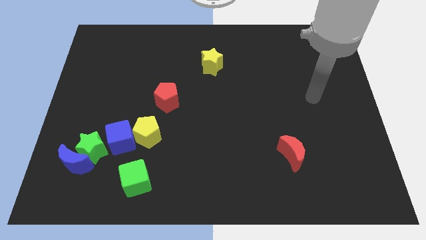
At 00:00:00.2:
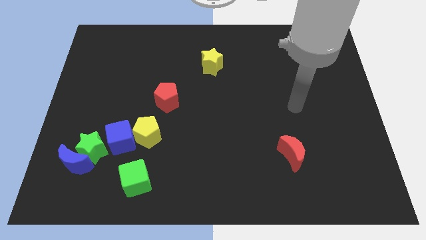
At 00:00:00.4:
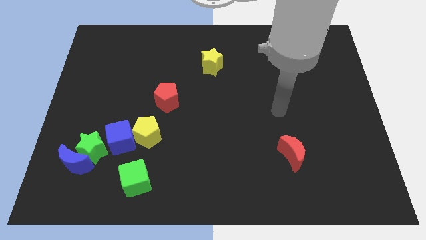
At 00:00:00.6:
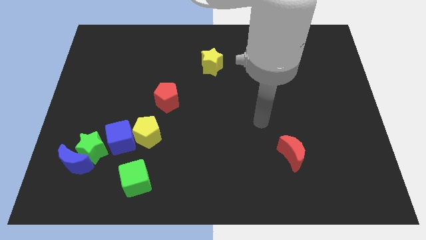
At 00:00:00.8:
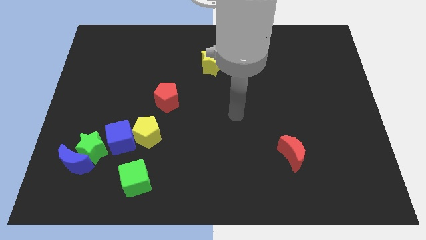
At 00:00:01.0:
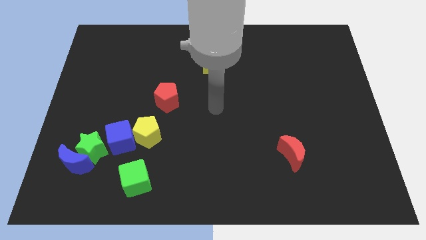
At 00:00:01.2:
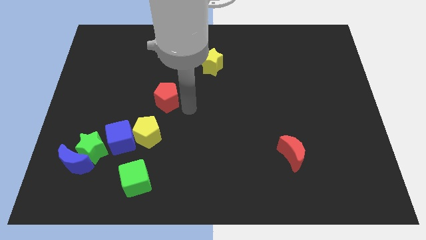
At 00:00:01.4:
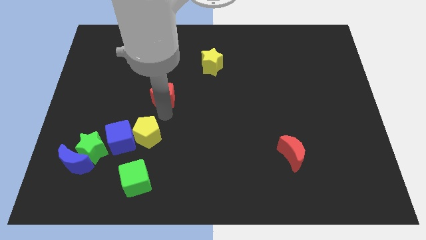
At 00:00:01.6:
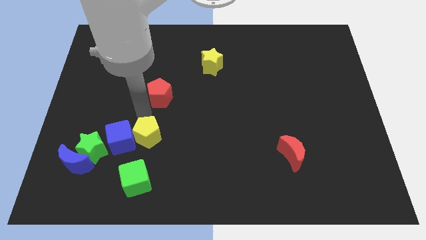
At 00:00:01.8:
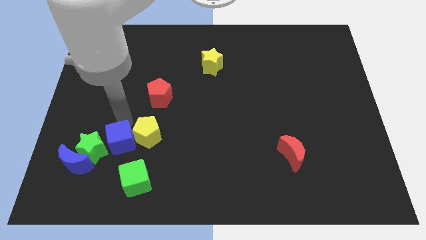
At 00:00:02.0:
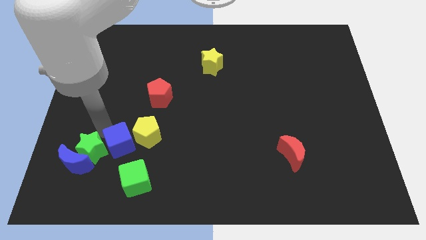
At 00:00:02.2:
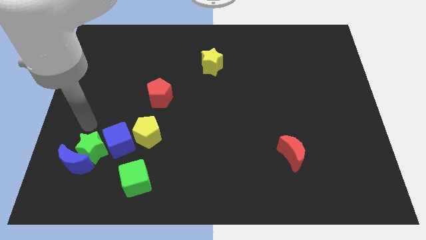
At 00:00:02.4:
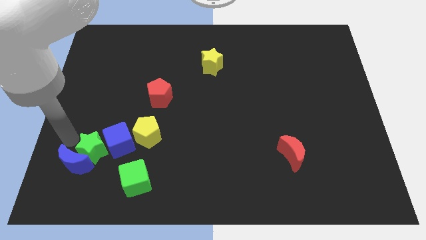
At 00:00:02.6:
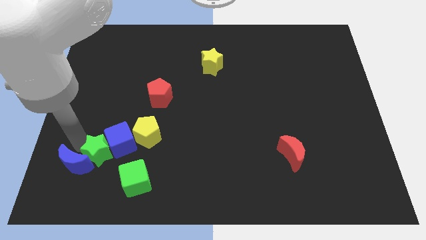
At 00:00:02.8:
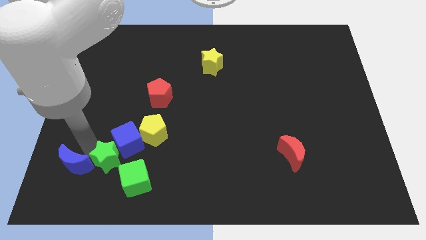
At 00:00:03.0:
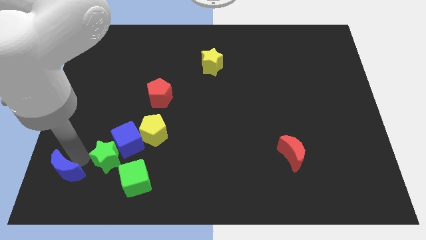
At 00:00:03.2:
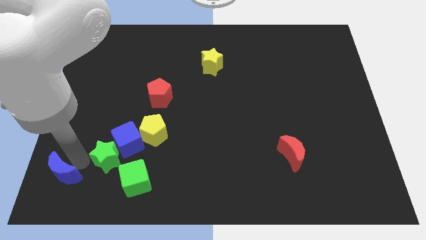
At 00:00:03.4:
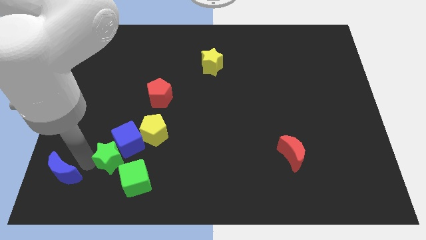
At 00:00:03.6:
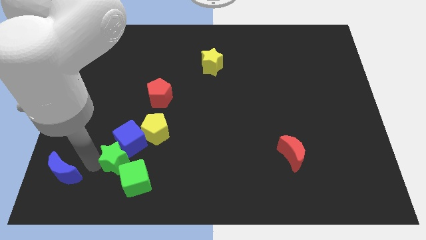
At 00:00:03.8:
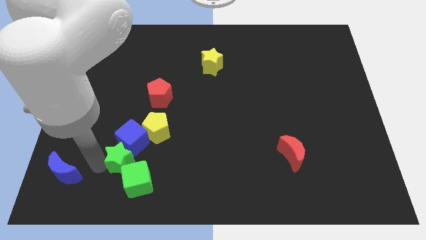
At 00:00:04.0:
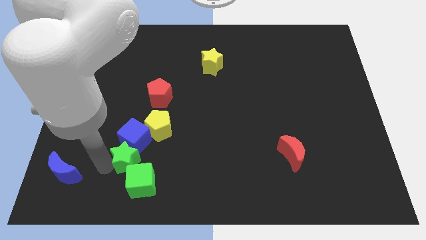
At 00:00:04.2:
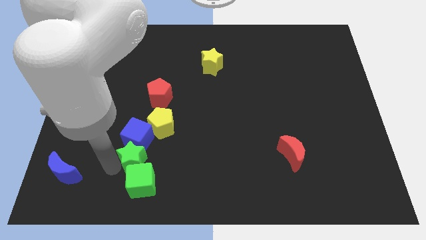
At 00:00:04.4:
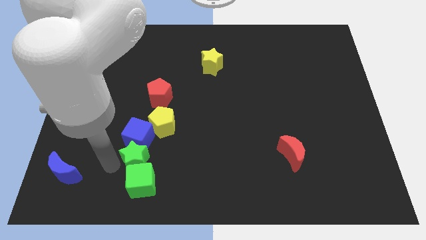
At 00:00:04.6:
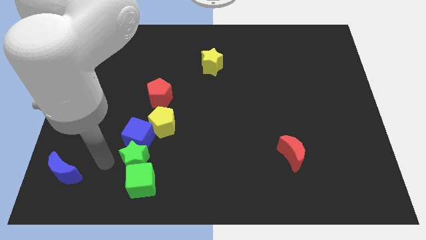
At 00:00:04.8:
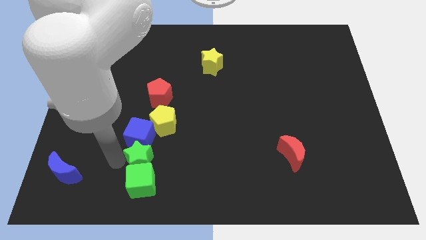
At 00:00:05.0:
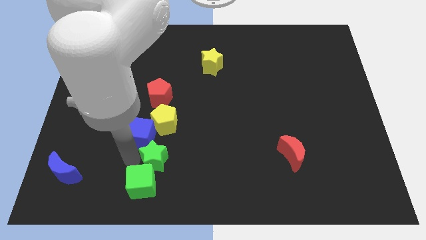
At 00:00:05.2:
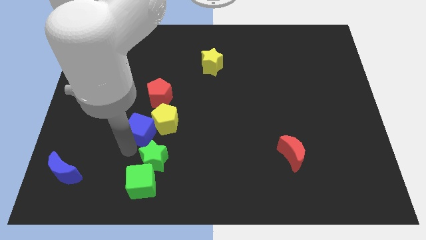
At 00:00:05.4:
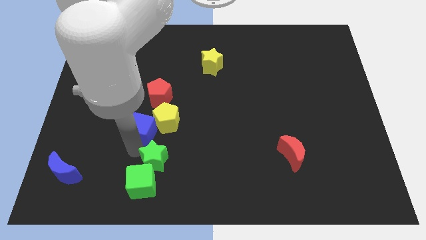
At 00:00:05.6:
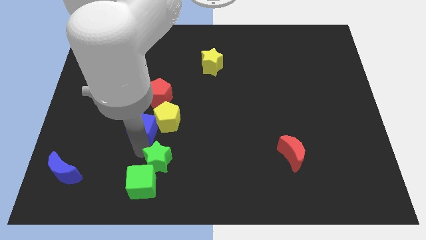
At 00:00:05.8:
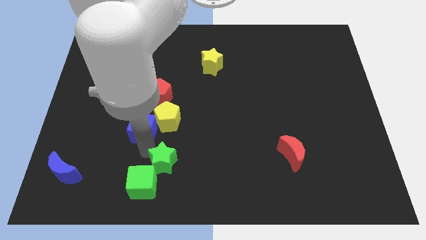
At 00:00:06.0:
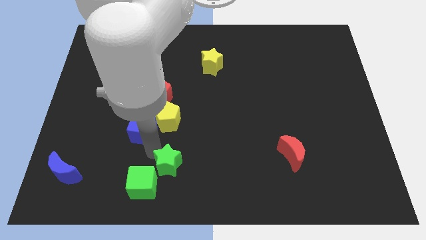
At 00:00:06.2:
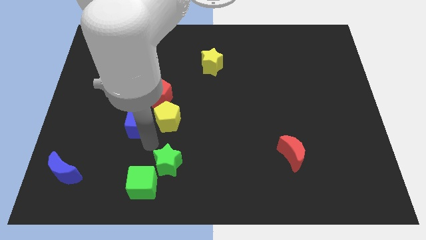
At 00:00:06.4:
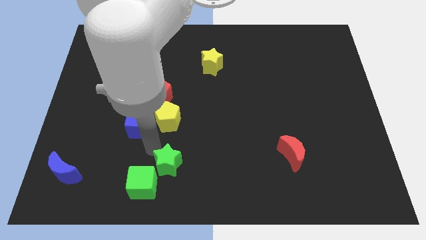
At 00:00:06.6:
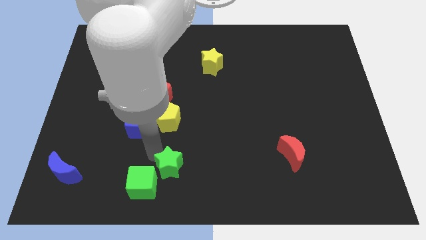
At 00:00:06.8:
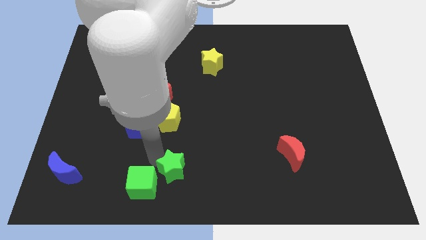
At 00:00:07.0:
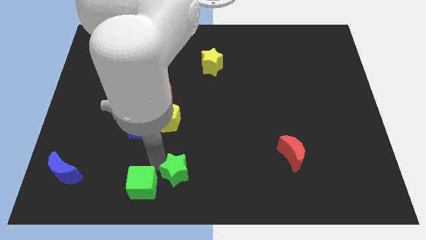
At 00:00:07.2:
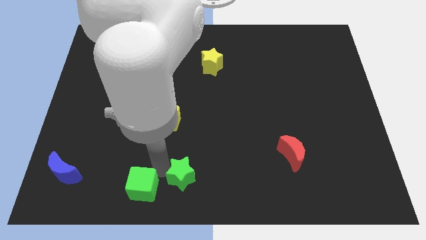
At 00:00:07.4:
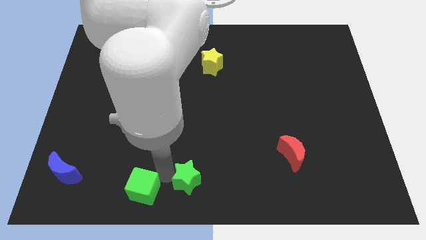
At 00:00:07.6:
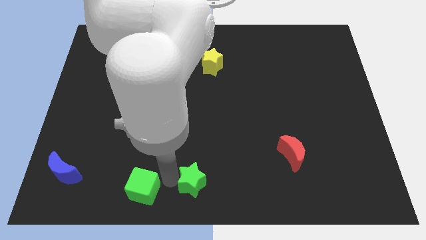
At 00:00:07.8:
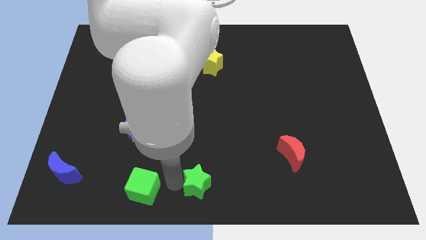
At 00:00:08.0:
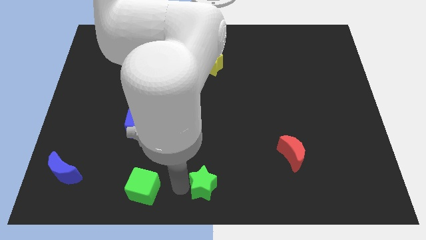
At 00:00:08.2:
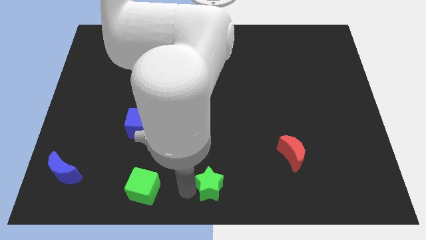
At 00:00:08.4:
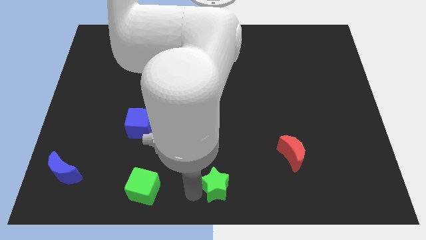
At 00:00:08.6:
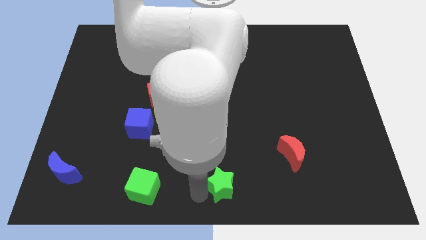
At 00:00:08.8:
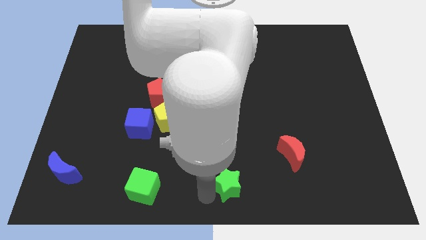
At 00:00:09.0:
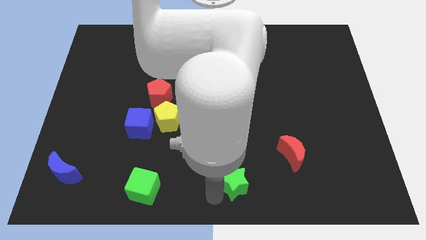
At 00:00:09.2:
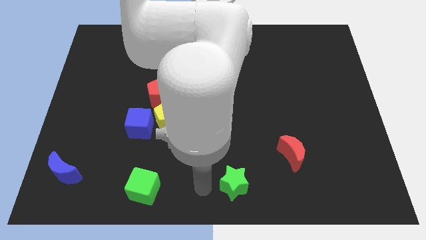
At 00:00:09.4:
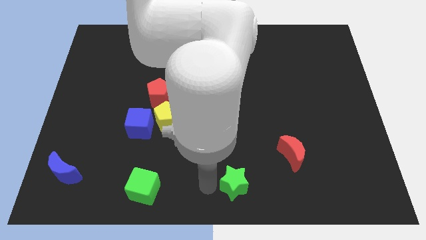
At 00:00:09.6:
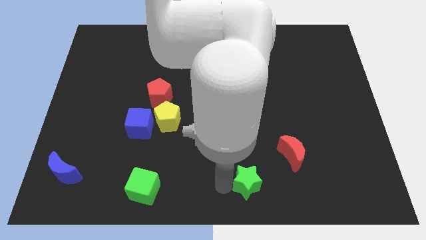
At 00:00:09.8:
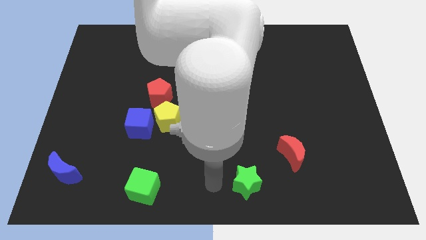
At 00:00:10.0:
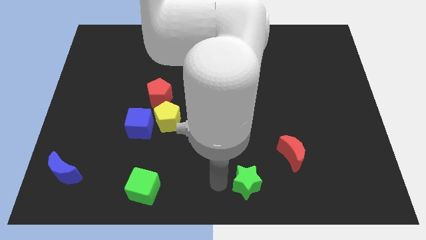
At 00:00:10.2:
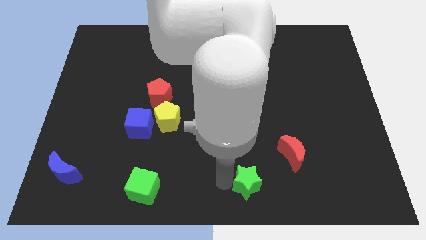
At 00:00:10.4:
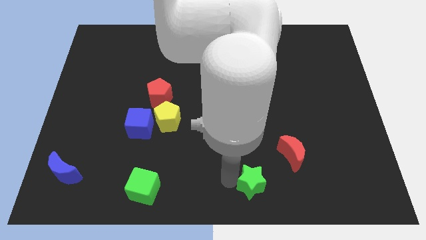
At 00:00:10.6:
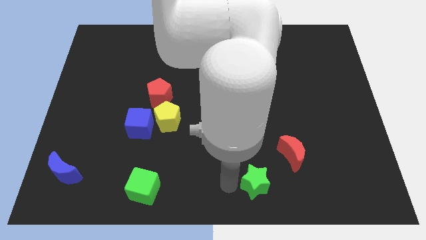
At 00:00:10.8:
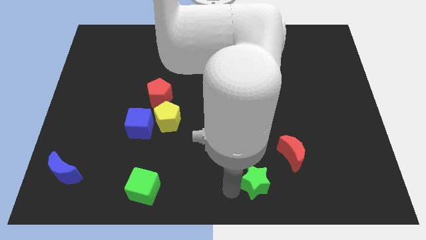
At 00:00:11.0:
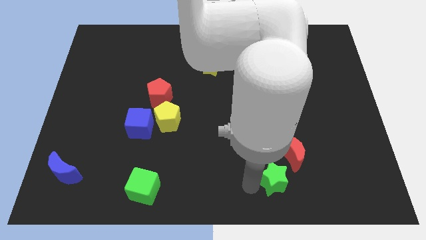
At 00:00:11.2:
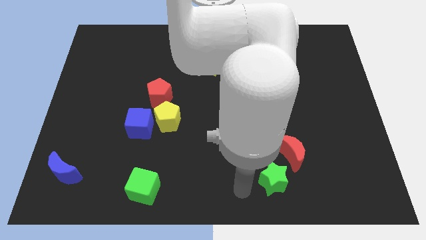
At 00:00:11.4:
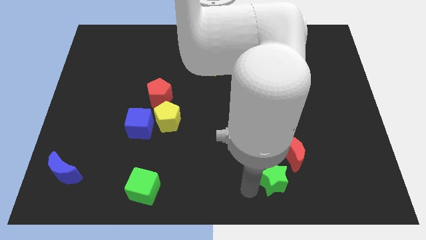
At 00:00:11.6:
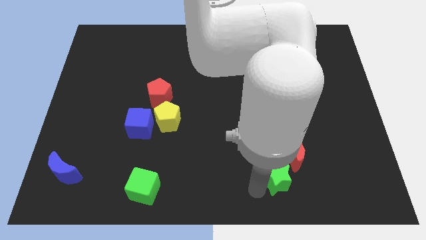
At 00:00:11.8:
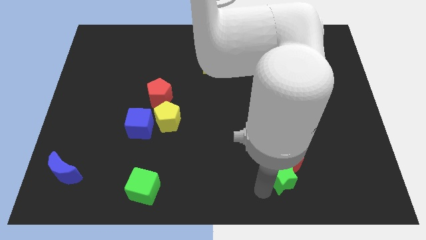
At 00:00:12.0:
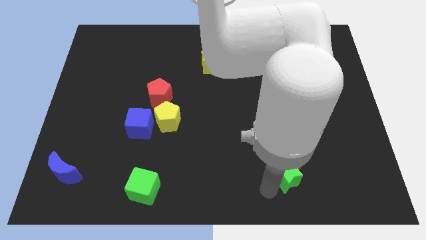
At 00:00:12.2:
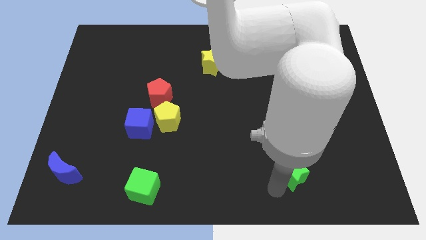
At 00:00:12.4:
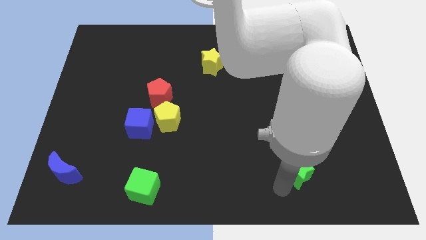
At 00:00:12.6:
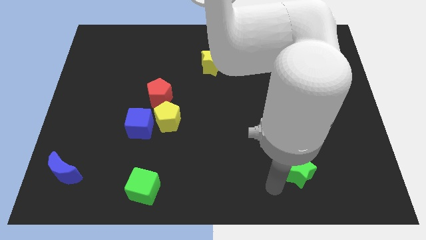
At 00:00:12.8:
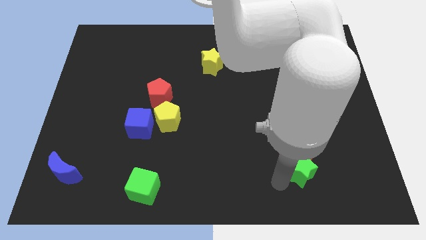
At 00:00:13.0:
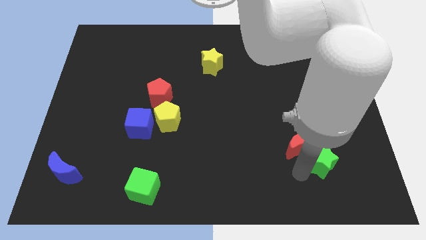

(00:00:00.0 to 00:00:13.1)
slide the green star just right of the red moon
